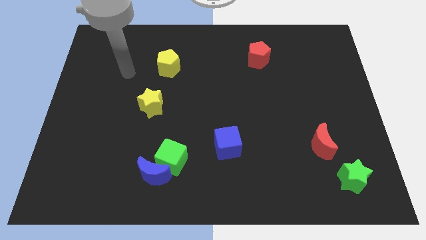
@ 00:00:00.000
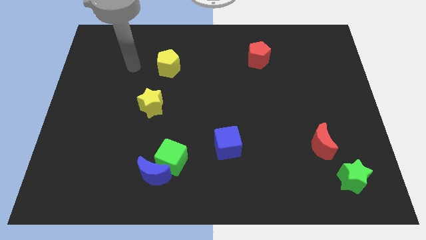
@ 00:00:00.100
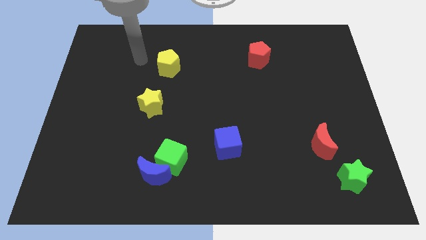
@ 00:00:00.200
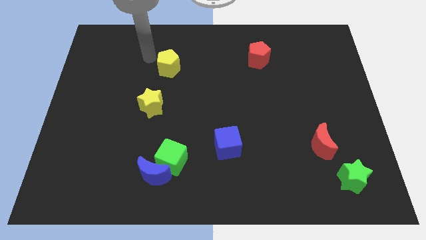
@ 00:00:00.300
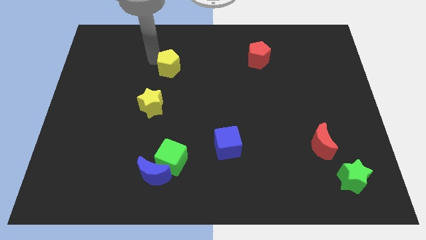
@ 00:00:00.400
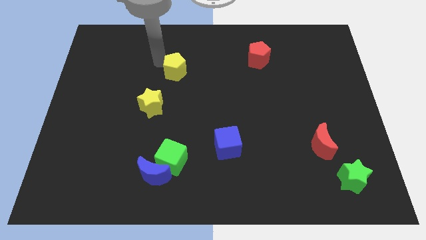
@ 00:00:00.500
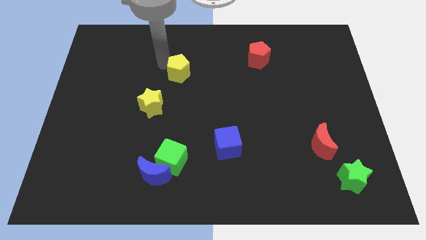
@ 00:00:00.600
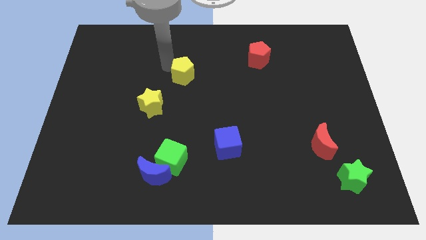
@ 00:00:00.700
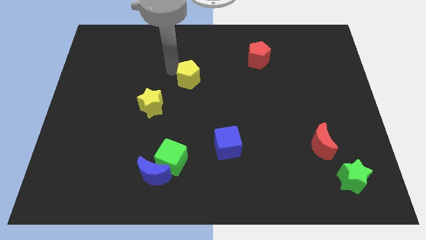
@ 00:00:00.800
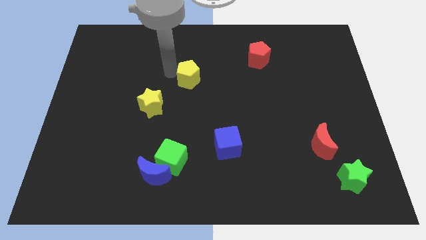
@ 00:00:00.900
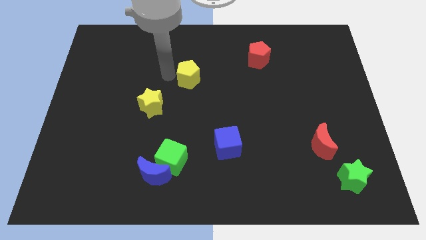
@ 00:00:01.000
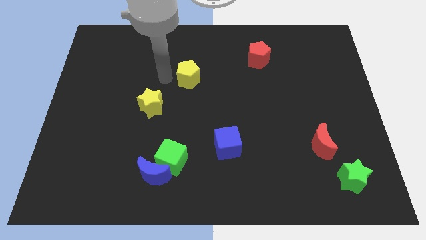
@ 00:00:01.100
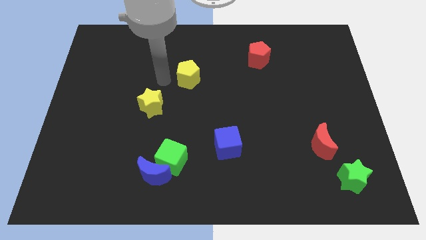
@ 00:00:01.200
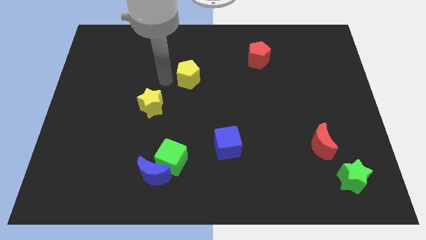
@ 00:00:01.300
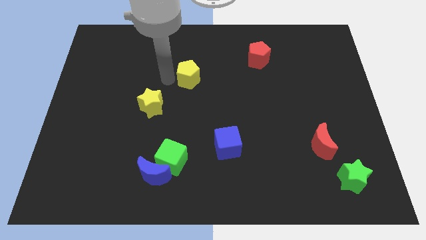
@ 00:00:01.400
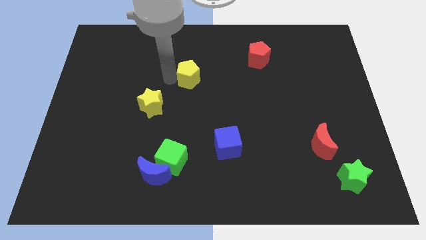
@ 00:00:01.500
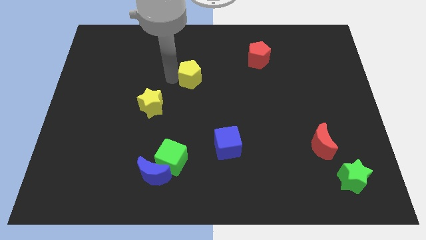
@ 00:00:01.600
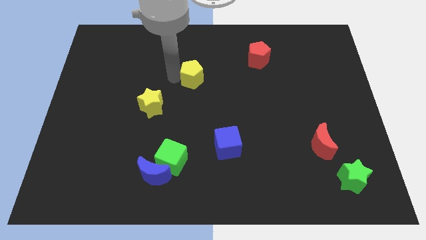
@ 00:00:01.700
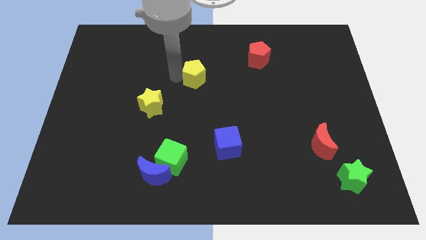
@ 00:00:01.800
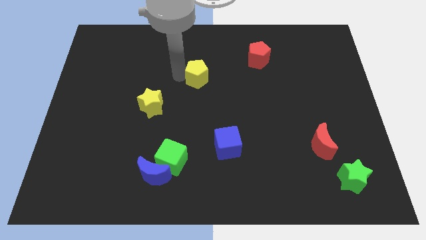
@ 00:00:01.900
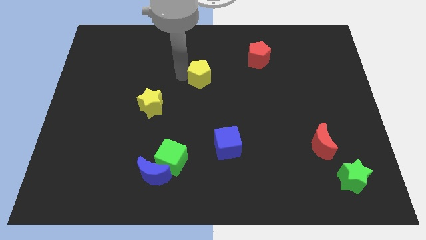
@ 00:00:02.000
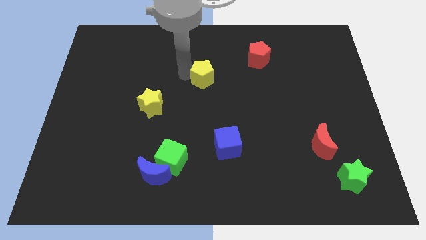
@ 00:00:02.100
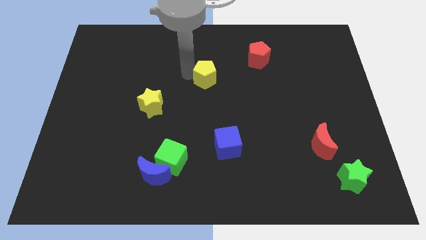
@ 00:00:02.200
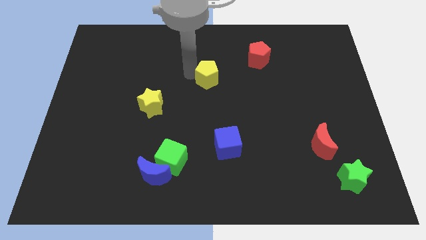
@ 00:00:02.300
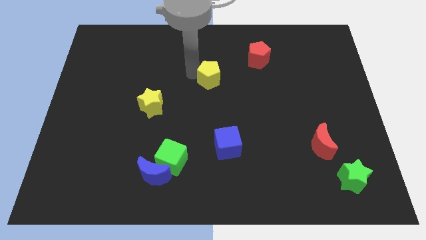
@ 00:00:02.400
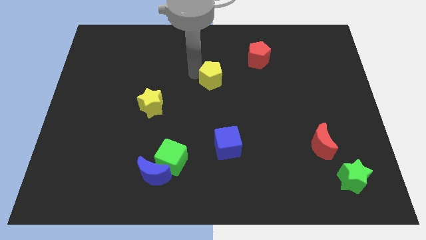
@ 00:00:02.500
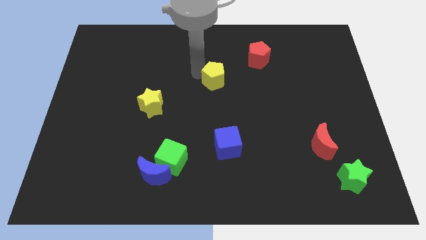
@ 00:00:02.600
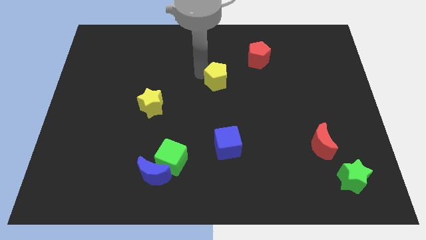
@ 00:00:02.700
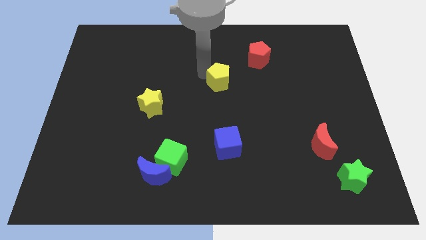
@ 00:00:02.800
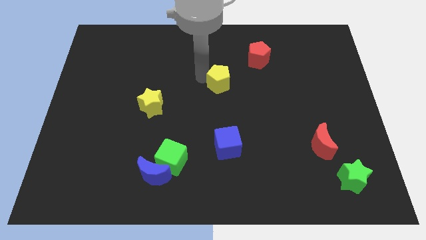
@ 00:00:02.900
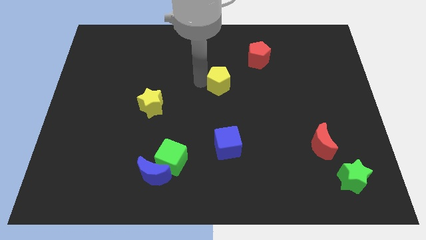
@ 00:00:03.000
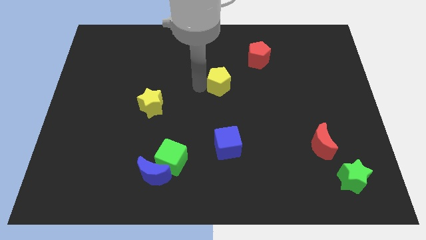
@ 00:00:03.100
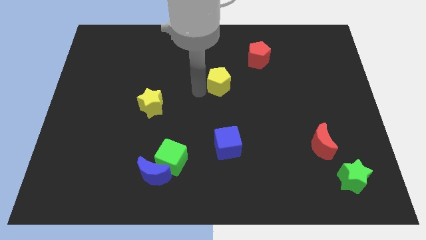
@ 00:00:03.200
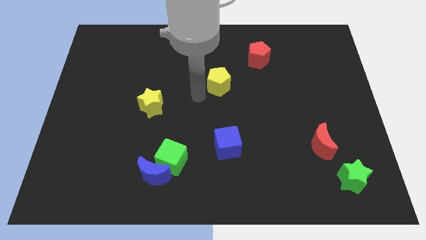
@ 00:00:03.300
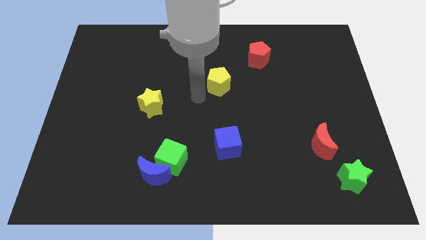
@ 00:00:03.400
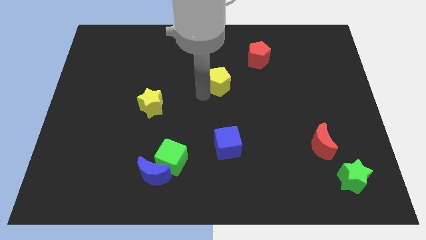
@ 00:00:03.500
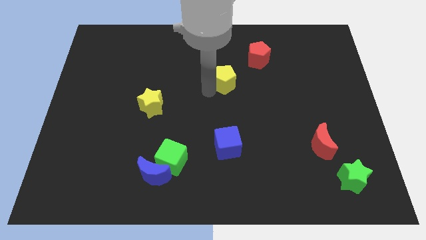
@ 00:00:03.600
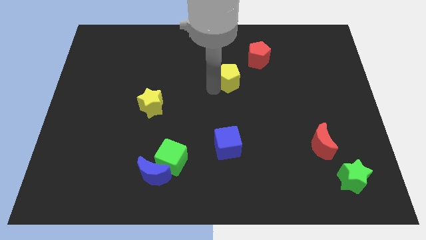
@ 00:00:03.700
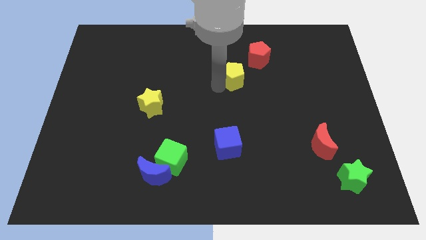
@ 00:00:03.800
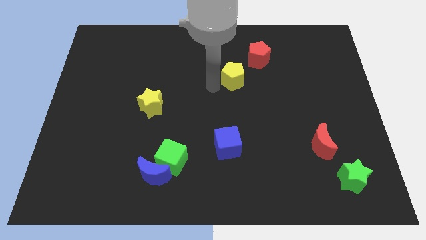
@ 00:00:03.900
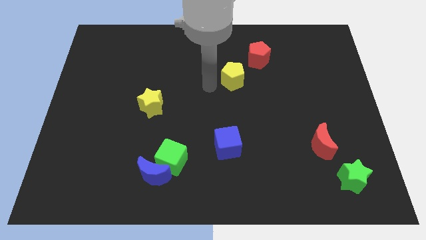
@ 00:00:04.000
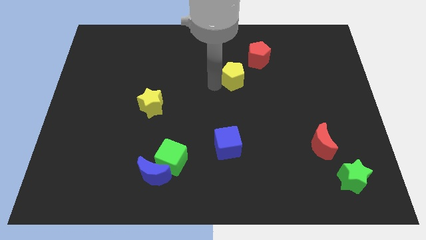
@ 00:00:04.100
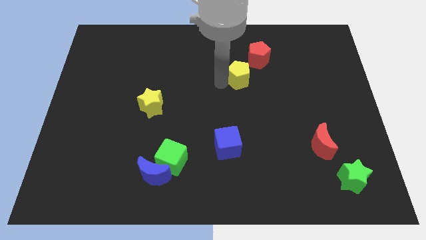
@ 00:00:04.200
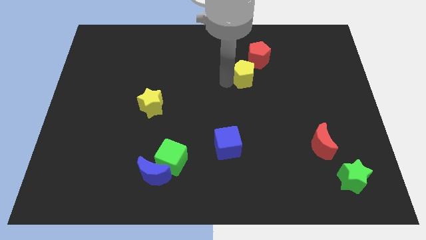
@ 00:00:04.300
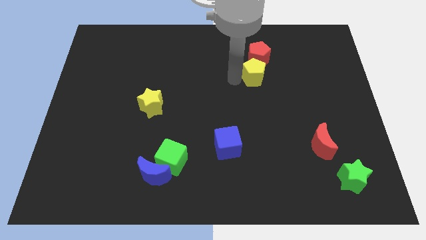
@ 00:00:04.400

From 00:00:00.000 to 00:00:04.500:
move the yellow pentagon right

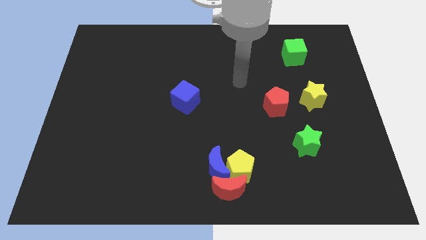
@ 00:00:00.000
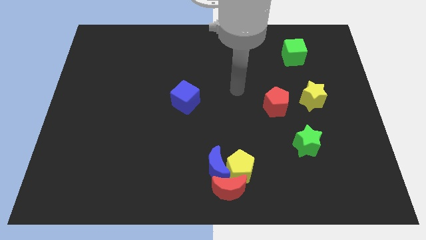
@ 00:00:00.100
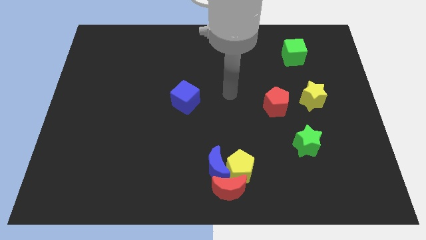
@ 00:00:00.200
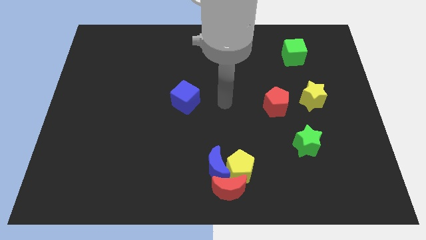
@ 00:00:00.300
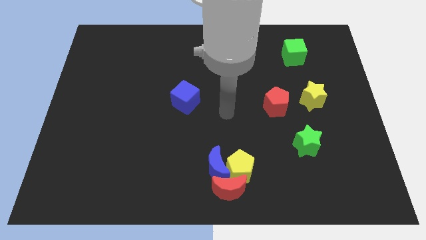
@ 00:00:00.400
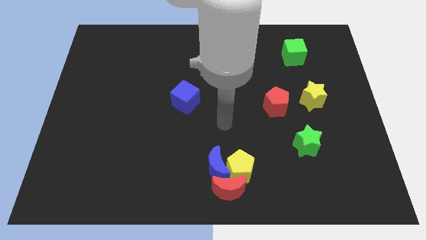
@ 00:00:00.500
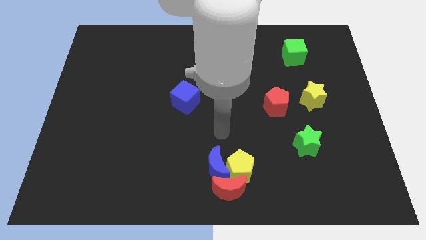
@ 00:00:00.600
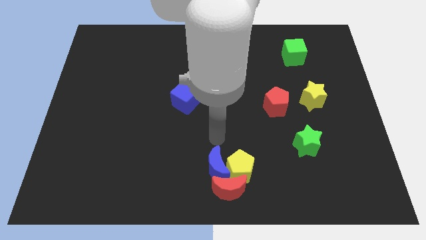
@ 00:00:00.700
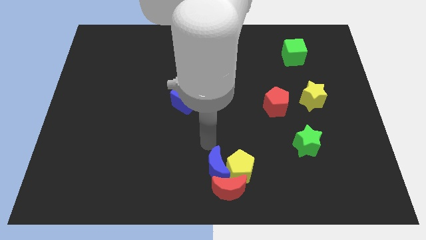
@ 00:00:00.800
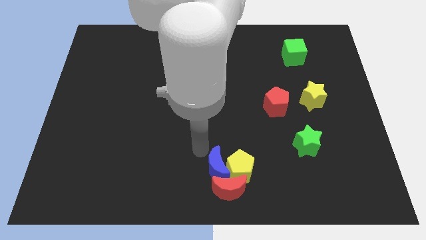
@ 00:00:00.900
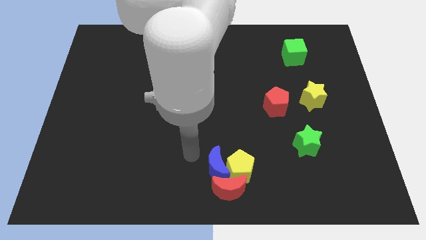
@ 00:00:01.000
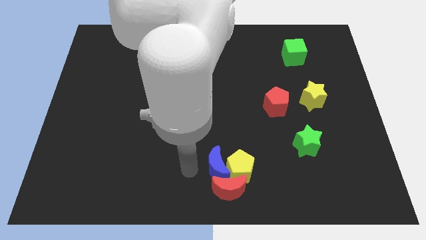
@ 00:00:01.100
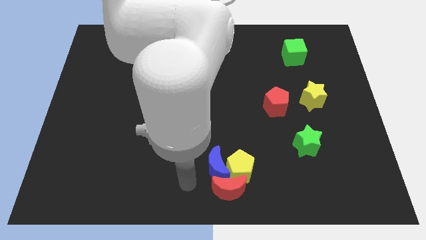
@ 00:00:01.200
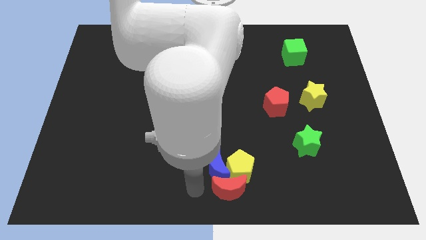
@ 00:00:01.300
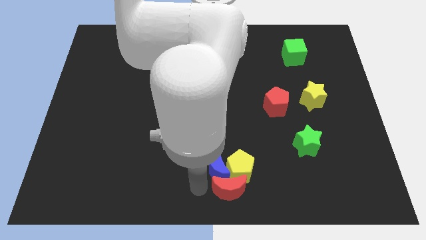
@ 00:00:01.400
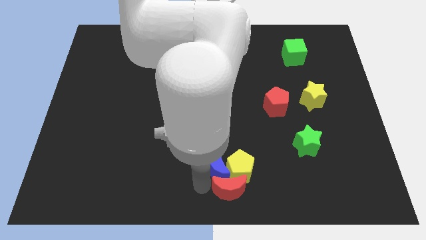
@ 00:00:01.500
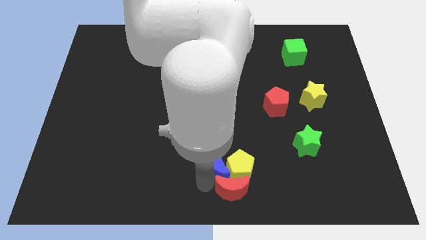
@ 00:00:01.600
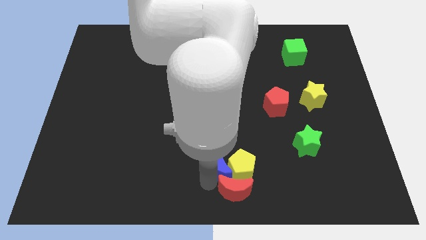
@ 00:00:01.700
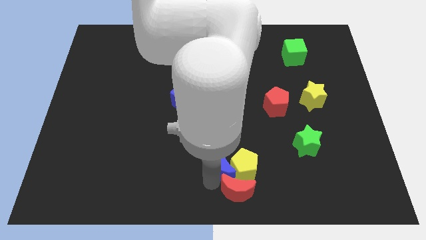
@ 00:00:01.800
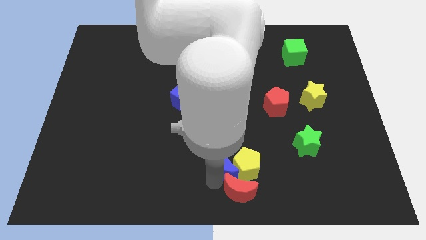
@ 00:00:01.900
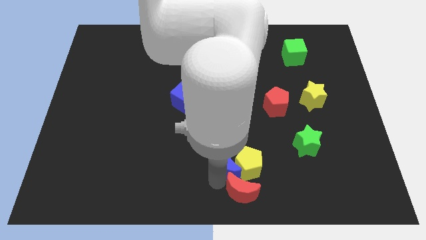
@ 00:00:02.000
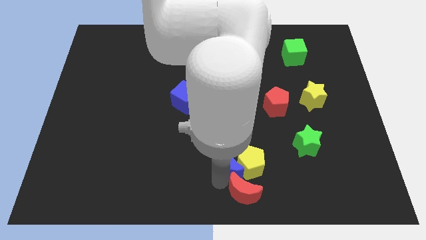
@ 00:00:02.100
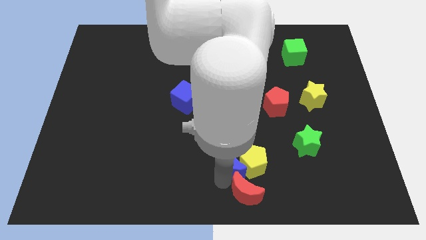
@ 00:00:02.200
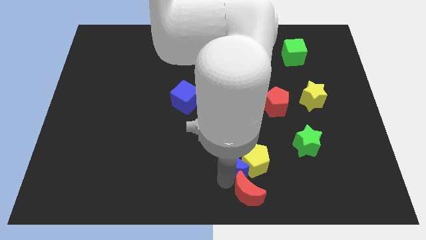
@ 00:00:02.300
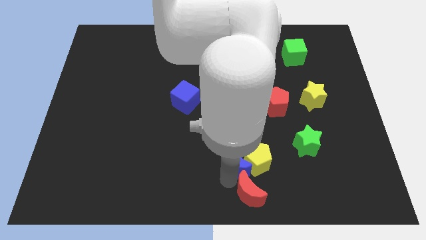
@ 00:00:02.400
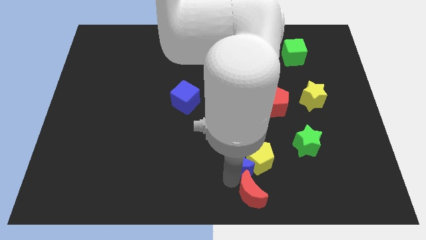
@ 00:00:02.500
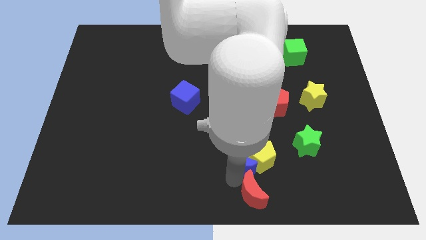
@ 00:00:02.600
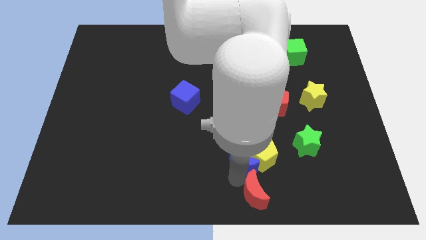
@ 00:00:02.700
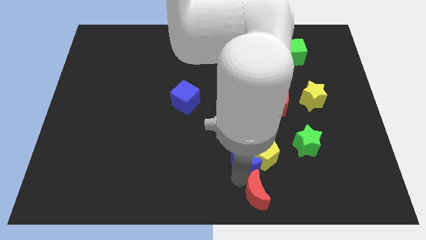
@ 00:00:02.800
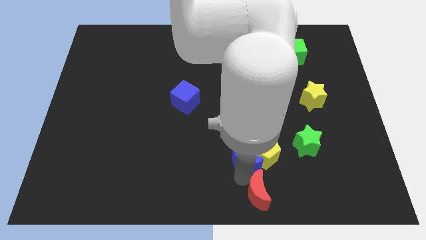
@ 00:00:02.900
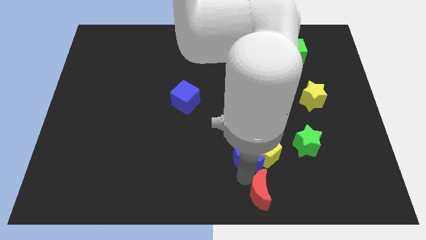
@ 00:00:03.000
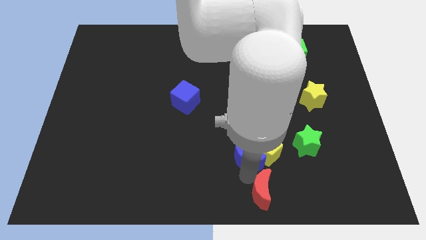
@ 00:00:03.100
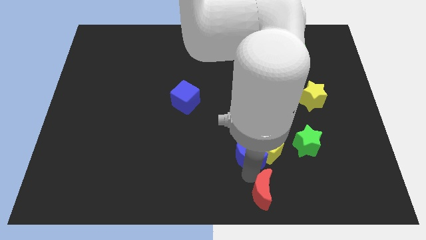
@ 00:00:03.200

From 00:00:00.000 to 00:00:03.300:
slightly move the blue moon right
